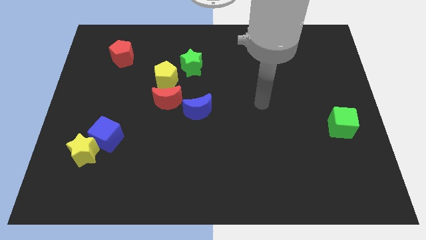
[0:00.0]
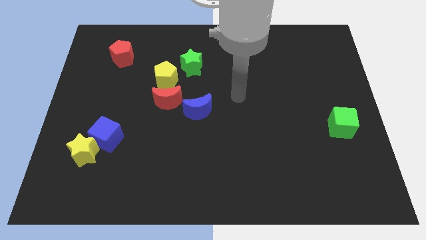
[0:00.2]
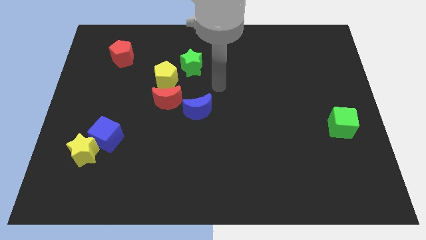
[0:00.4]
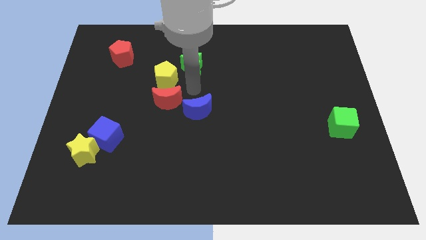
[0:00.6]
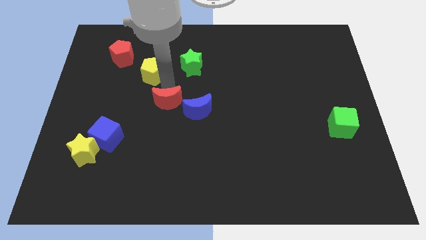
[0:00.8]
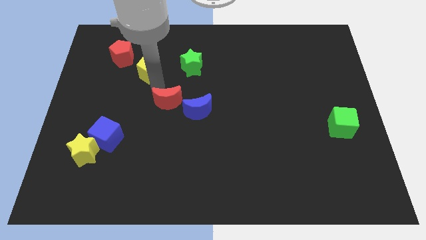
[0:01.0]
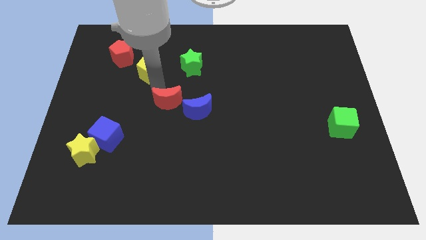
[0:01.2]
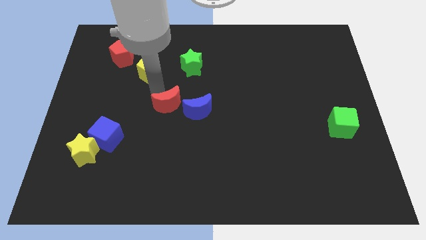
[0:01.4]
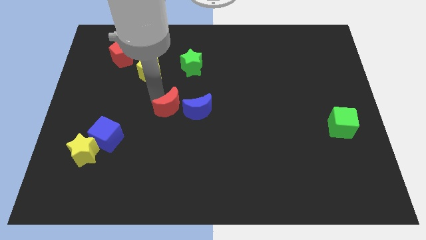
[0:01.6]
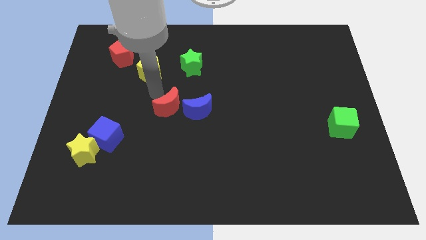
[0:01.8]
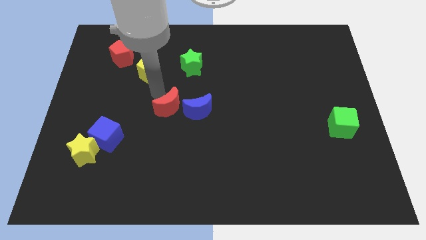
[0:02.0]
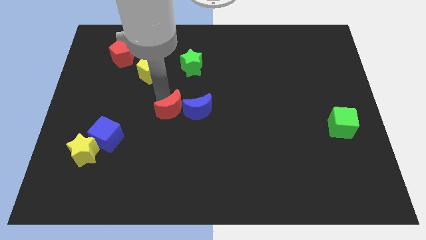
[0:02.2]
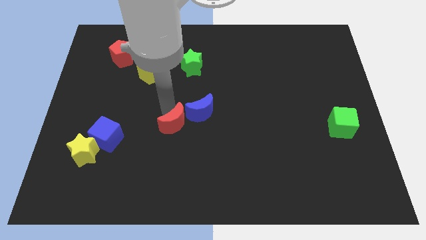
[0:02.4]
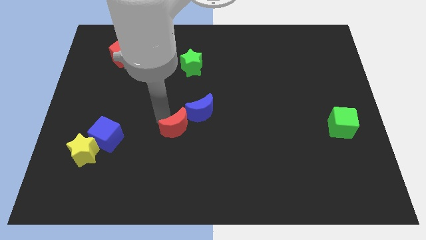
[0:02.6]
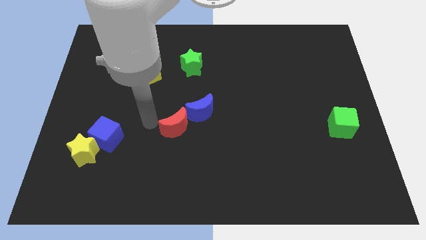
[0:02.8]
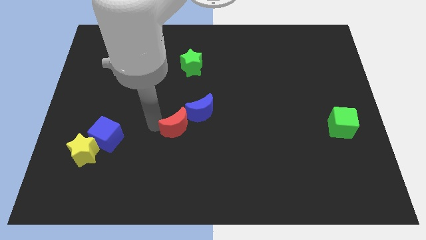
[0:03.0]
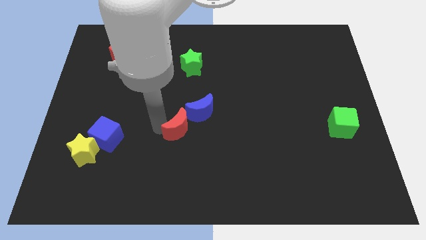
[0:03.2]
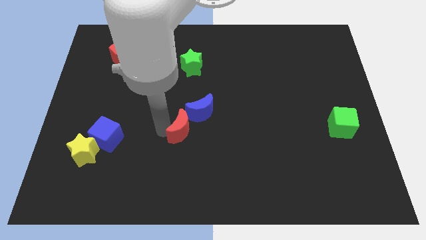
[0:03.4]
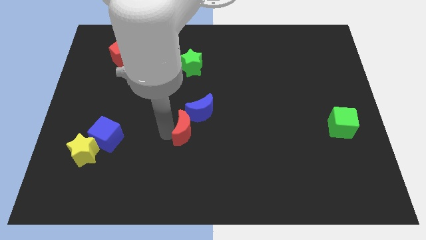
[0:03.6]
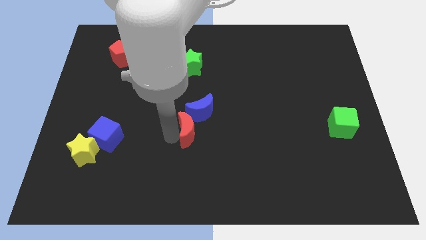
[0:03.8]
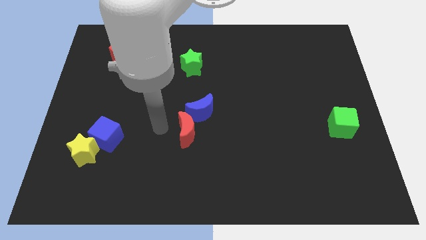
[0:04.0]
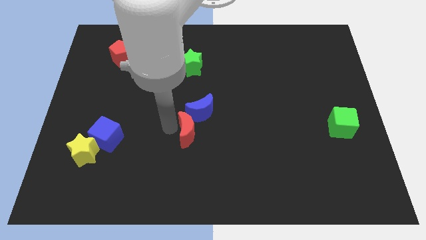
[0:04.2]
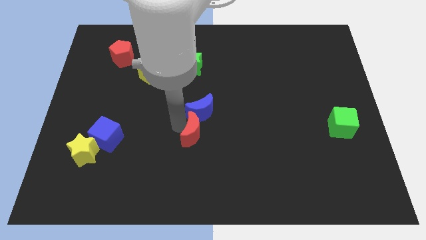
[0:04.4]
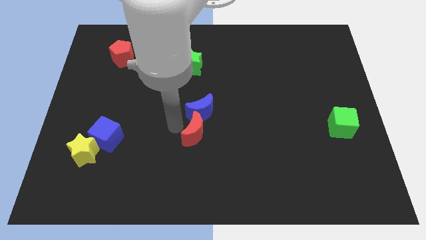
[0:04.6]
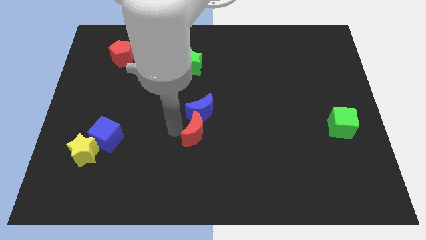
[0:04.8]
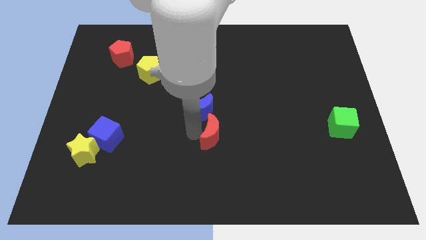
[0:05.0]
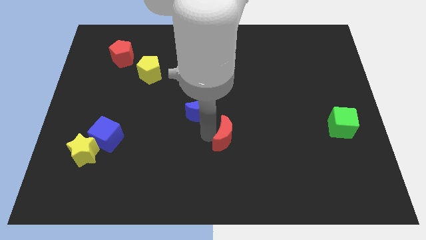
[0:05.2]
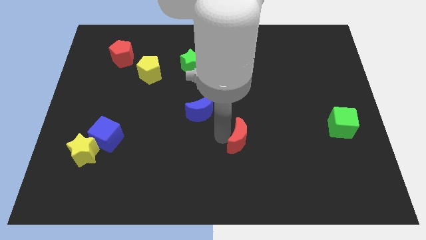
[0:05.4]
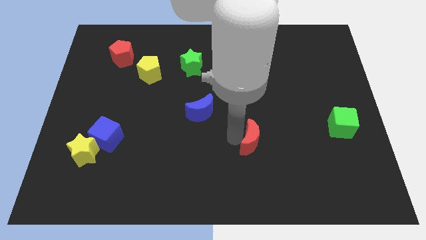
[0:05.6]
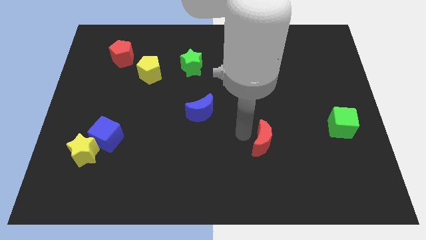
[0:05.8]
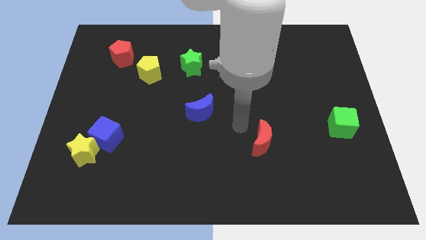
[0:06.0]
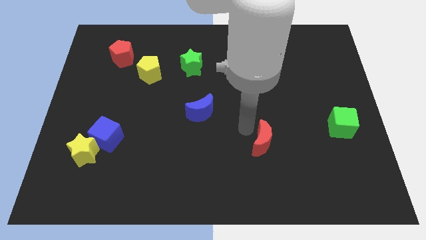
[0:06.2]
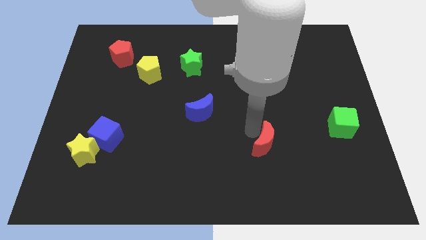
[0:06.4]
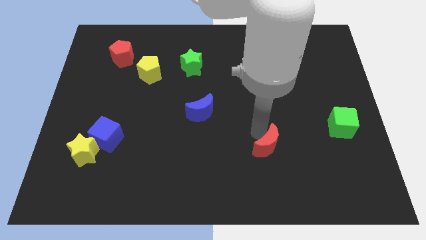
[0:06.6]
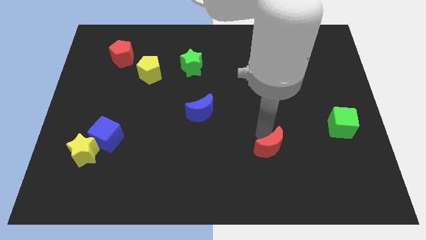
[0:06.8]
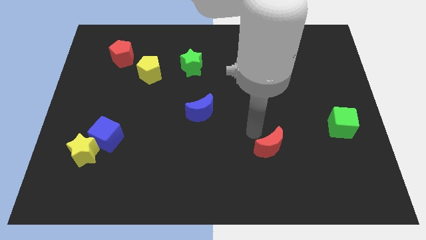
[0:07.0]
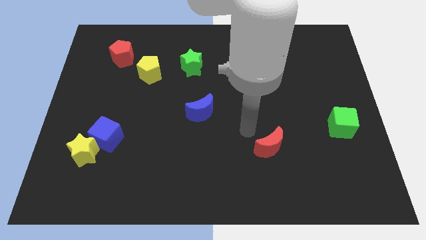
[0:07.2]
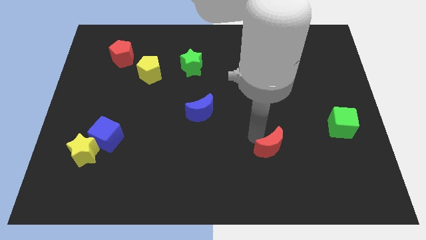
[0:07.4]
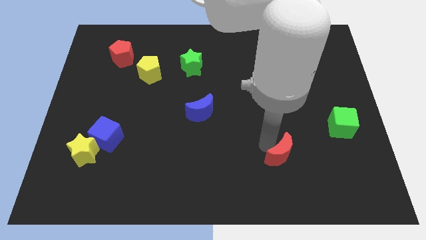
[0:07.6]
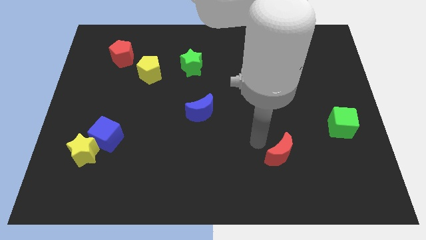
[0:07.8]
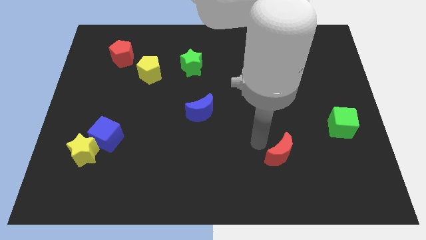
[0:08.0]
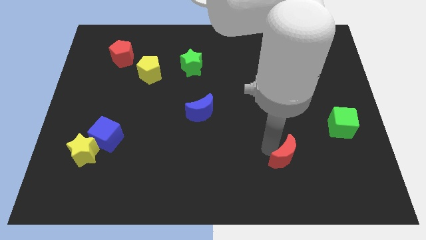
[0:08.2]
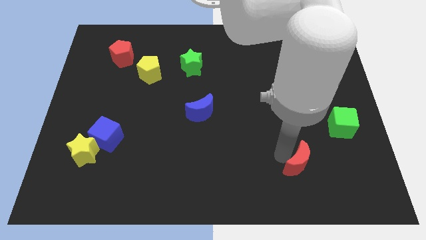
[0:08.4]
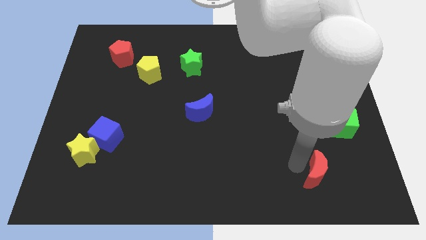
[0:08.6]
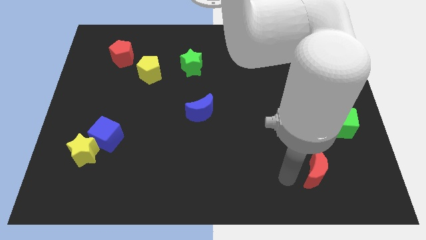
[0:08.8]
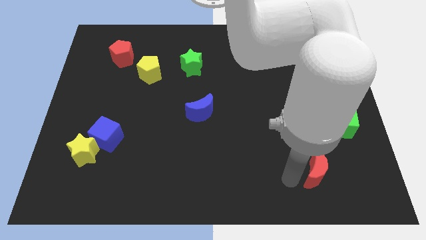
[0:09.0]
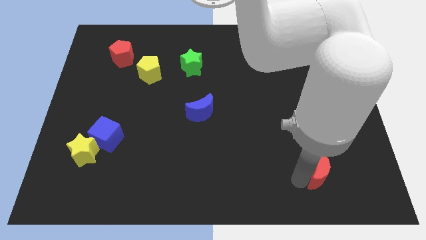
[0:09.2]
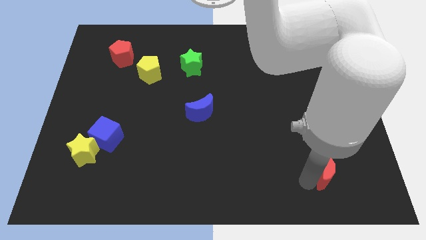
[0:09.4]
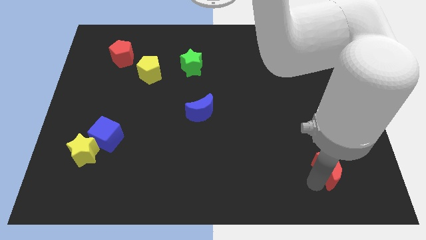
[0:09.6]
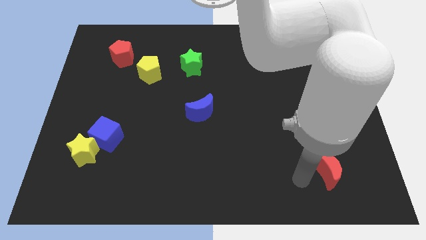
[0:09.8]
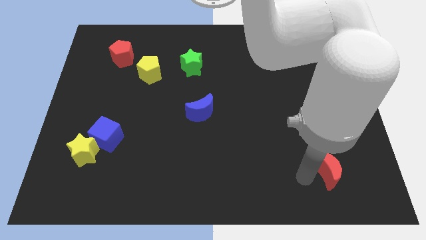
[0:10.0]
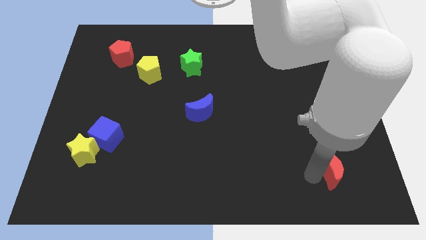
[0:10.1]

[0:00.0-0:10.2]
push the red moon to the bottom of the green cube

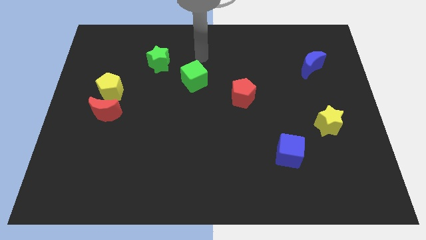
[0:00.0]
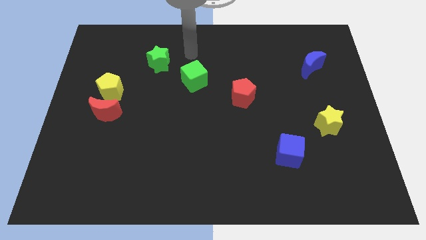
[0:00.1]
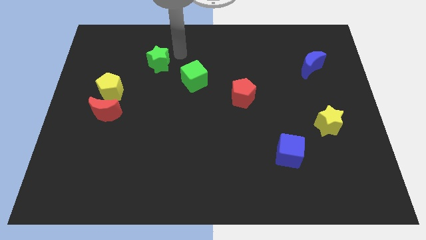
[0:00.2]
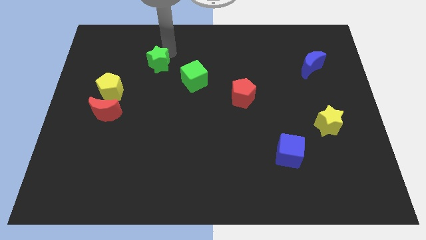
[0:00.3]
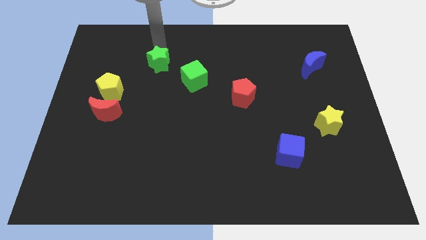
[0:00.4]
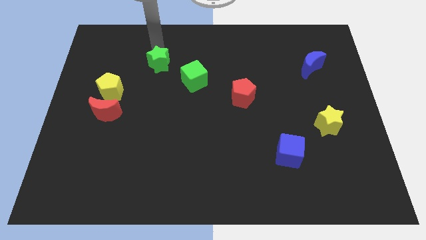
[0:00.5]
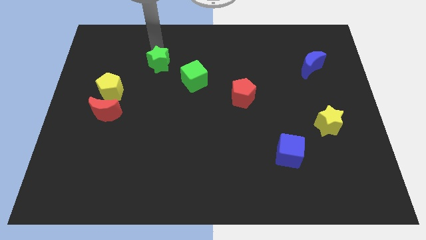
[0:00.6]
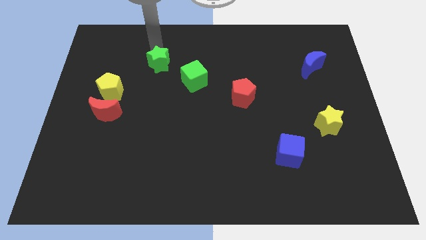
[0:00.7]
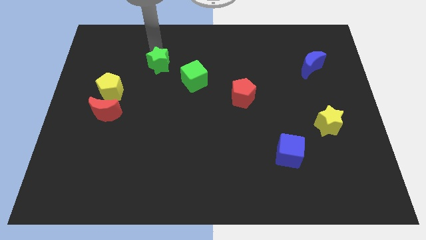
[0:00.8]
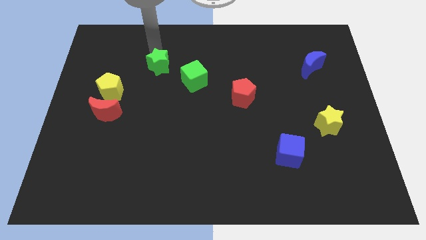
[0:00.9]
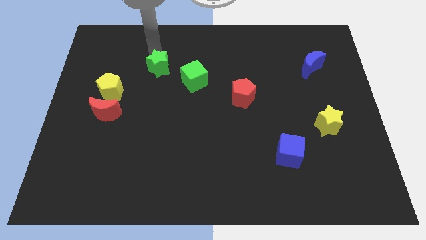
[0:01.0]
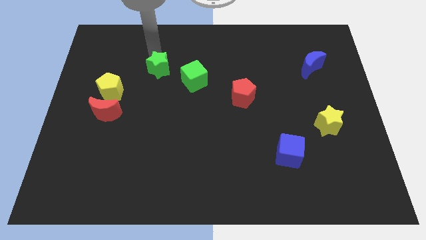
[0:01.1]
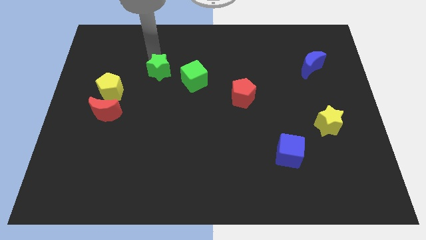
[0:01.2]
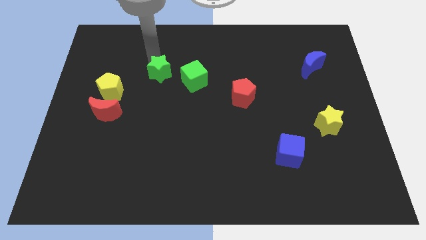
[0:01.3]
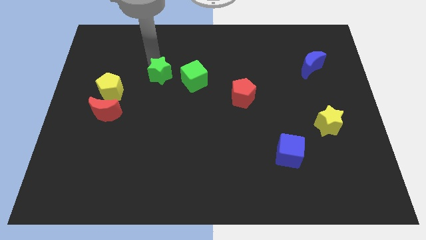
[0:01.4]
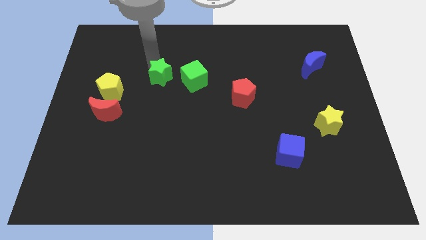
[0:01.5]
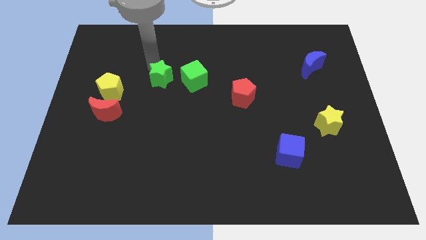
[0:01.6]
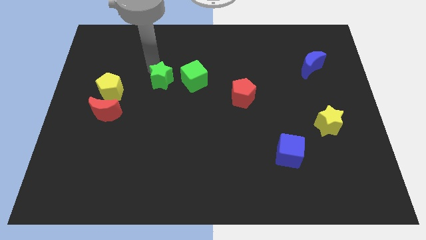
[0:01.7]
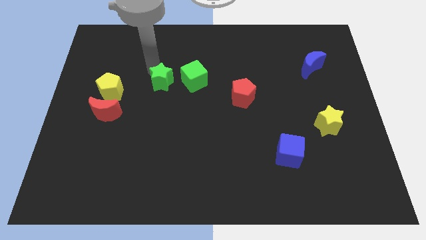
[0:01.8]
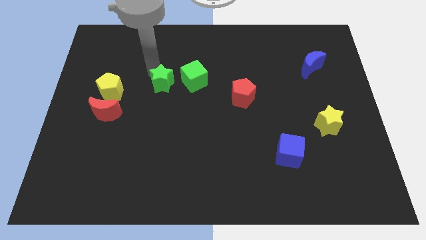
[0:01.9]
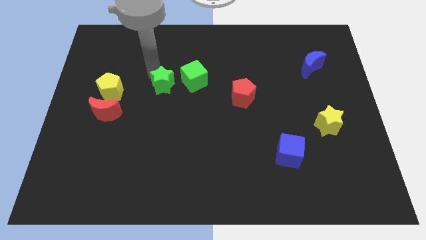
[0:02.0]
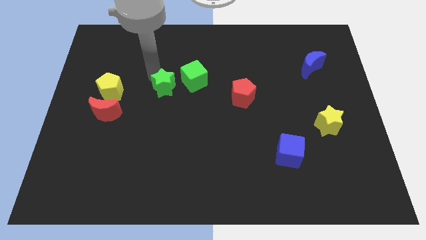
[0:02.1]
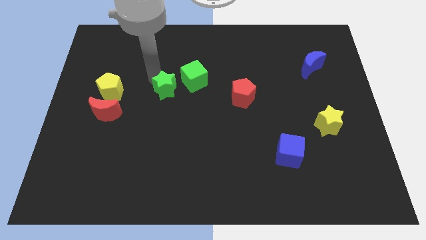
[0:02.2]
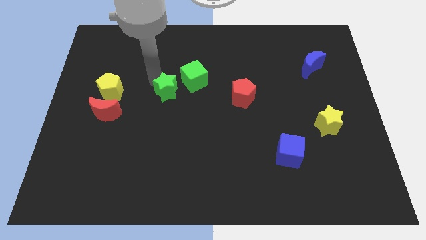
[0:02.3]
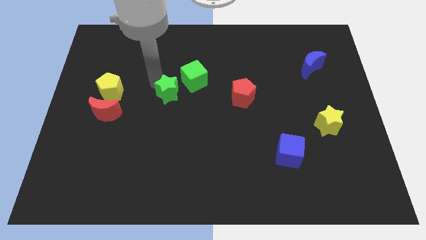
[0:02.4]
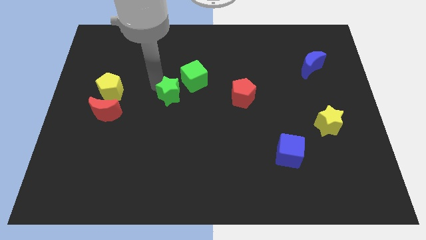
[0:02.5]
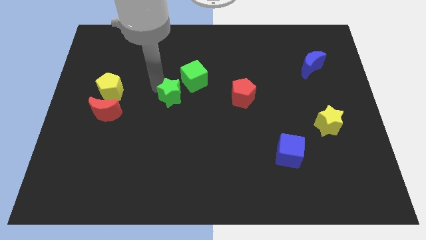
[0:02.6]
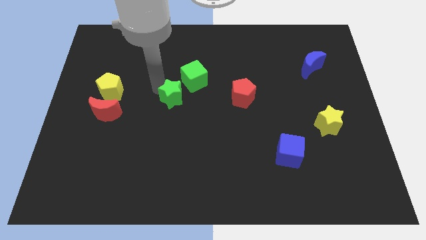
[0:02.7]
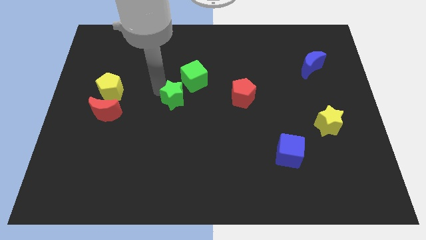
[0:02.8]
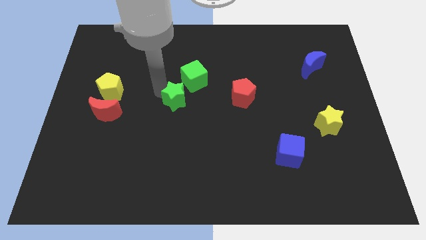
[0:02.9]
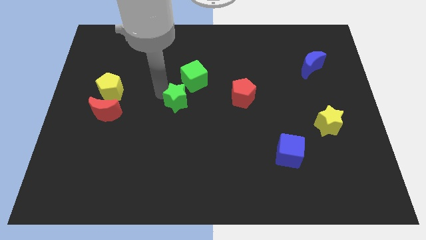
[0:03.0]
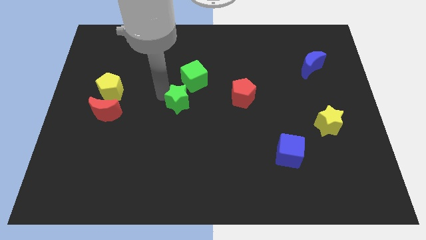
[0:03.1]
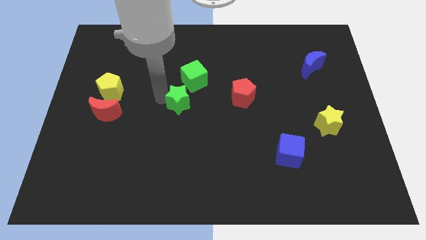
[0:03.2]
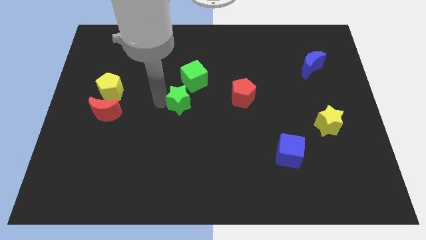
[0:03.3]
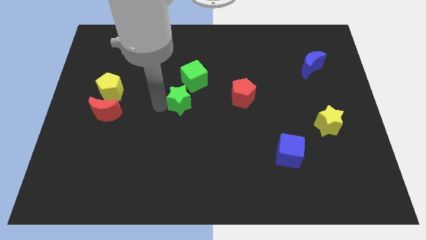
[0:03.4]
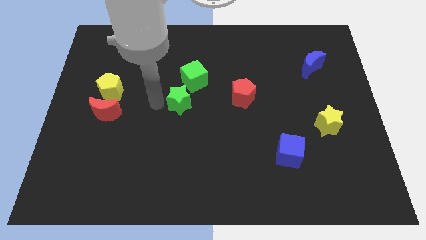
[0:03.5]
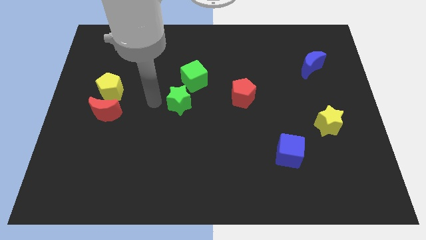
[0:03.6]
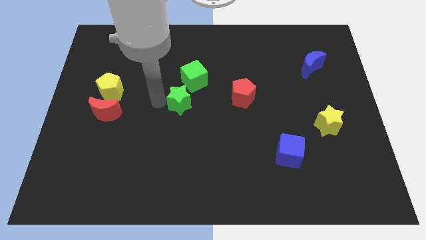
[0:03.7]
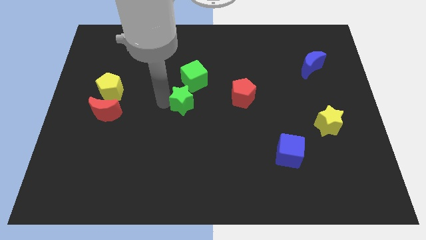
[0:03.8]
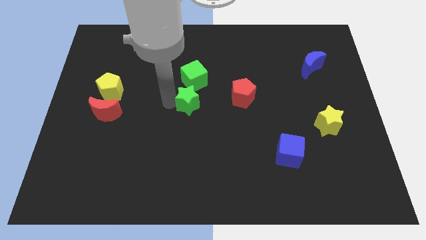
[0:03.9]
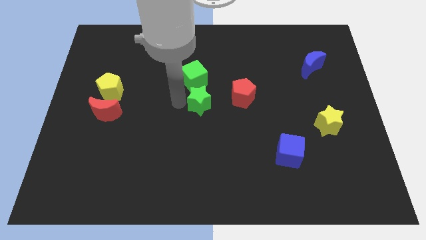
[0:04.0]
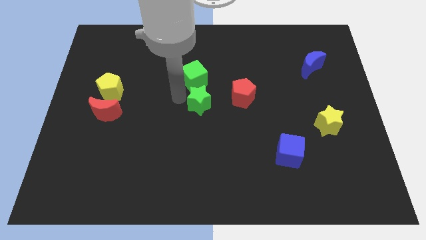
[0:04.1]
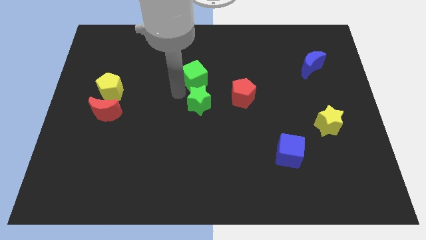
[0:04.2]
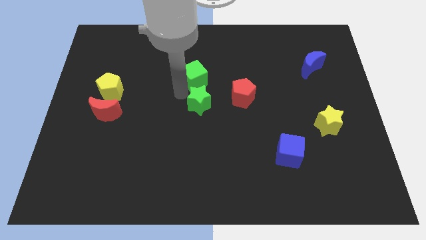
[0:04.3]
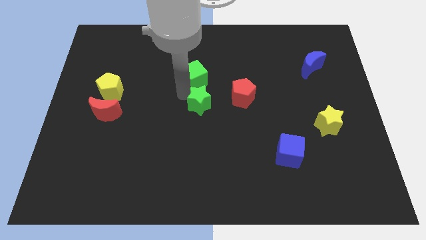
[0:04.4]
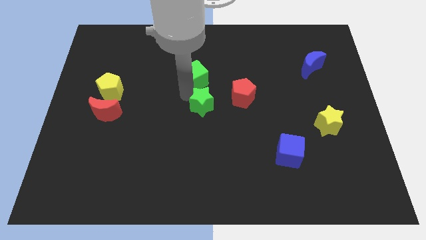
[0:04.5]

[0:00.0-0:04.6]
push the green star to the bottom left of the red pentagon
